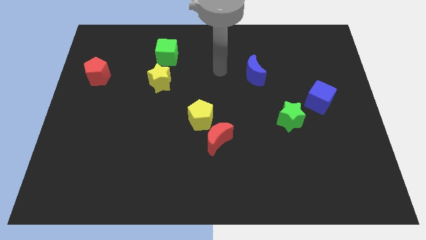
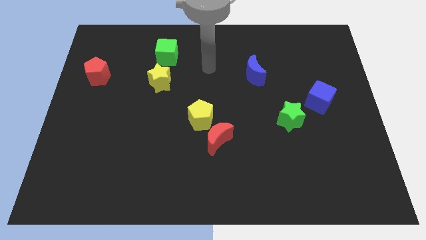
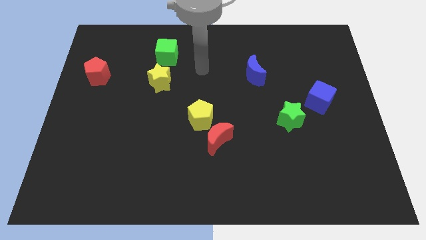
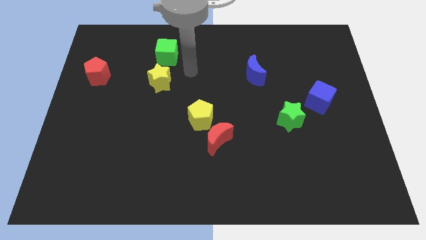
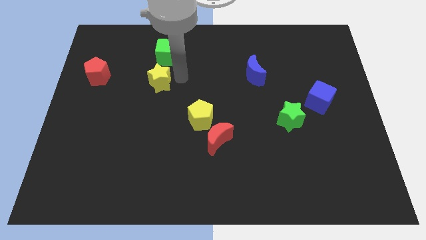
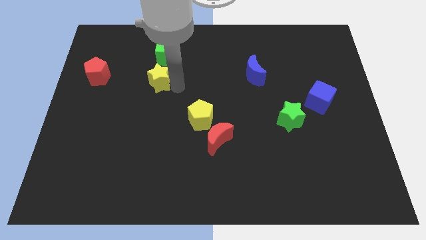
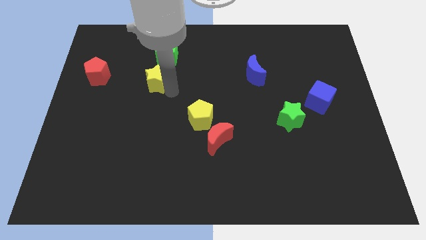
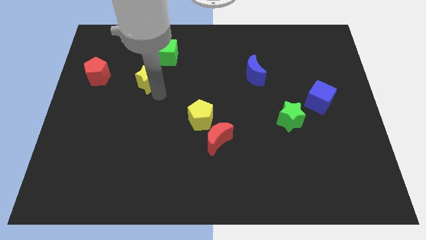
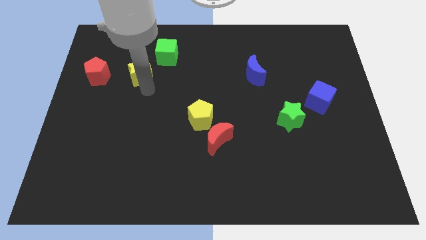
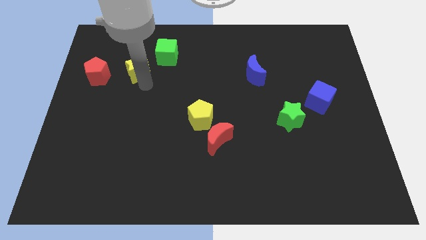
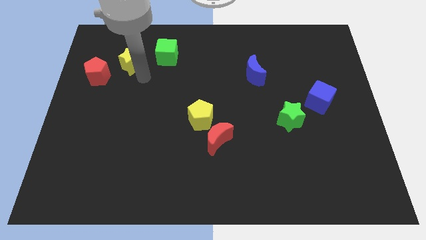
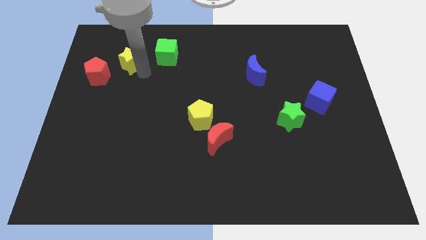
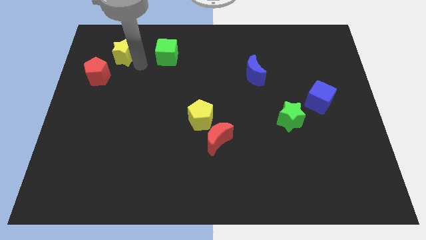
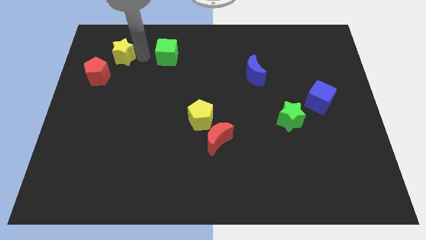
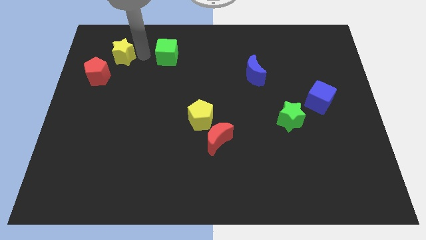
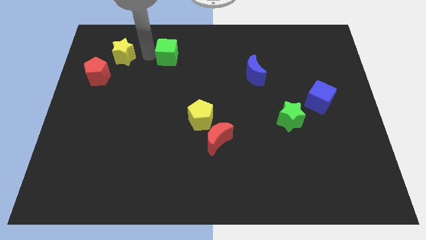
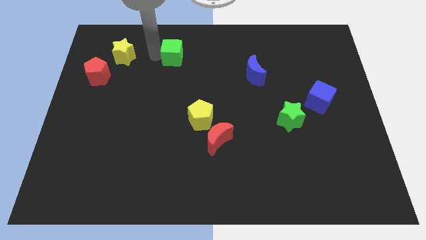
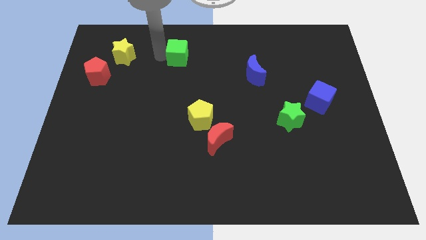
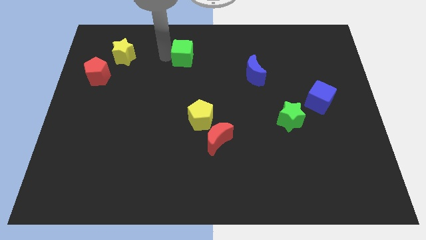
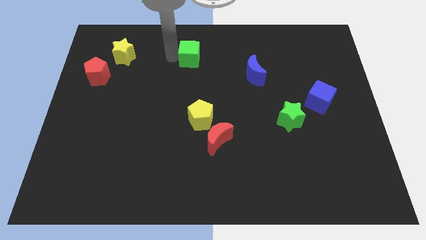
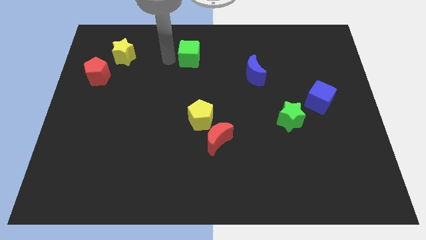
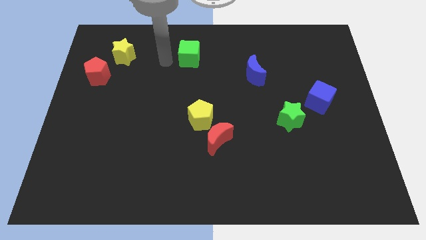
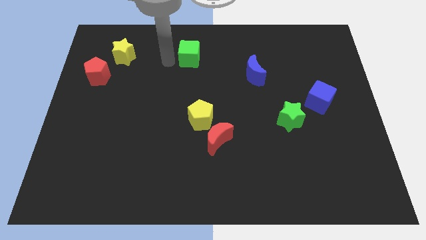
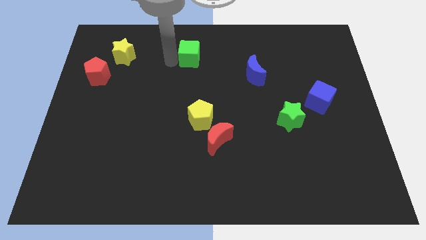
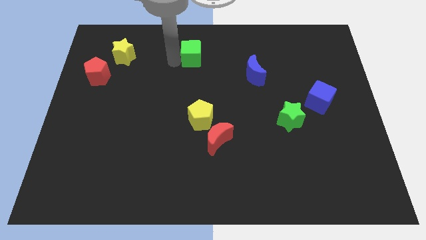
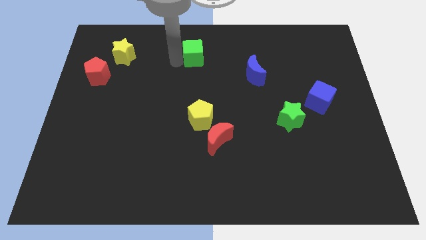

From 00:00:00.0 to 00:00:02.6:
move the green cube right a bit

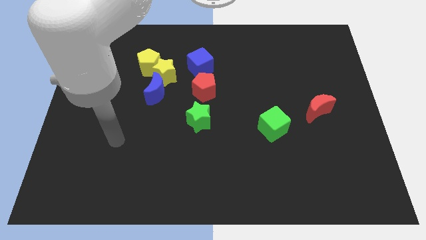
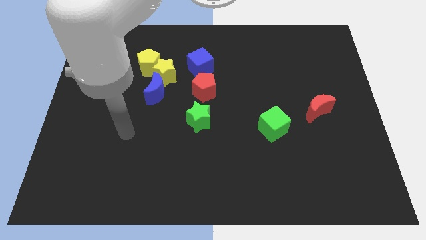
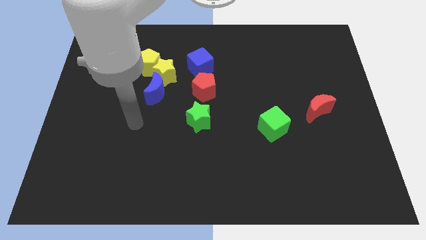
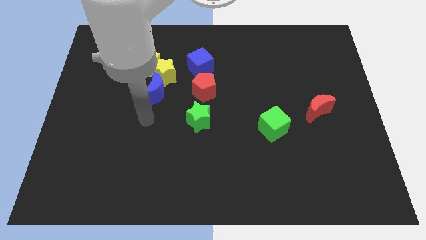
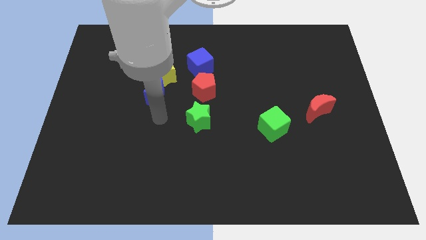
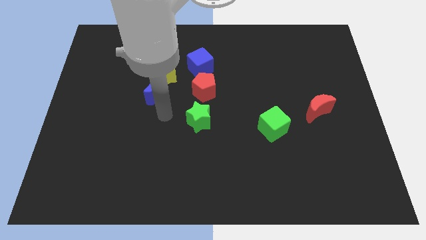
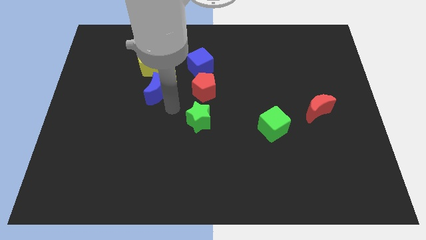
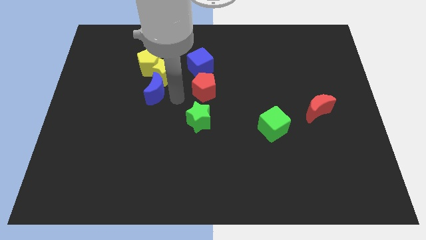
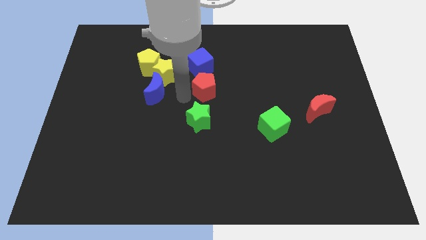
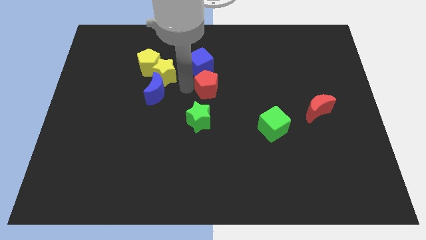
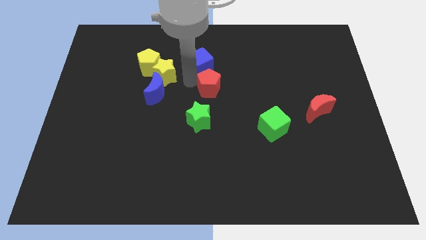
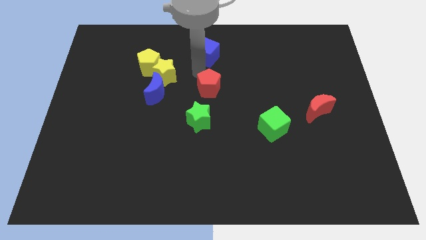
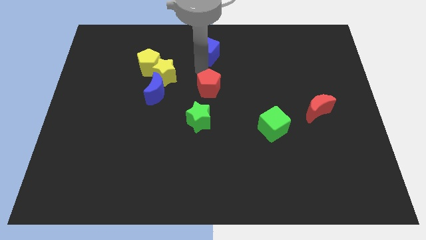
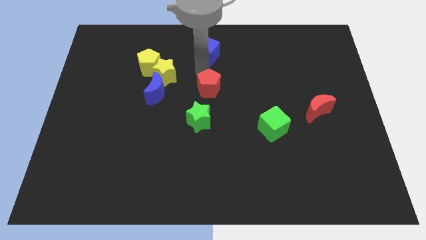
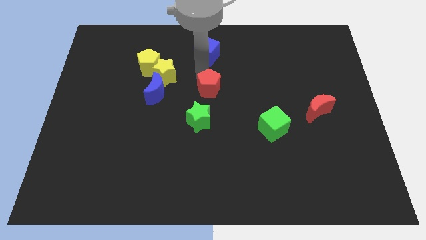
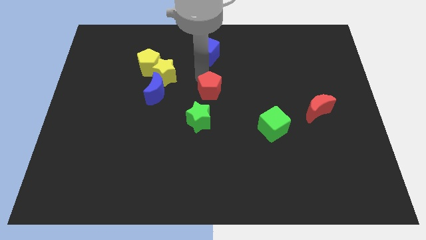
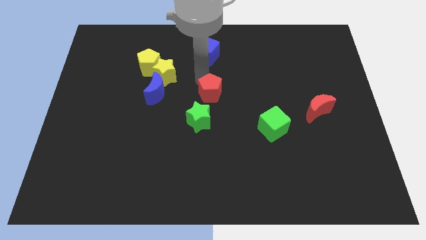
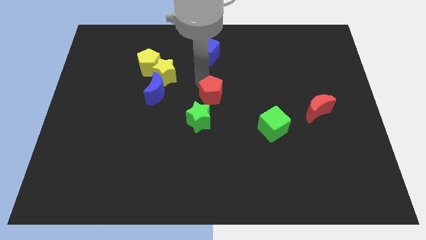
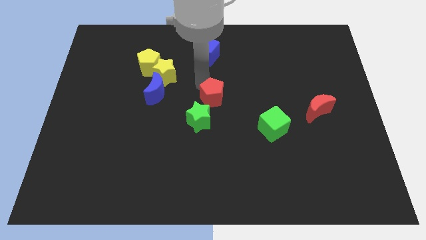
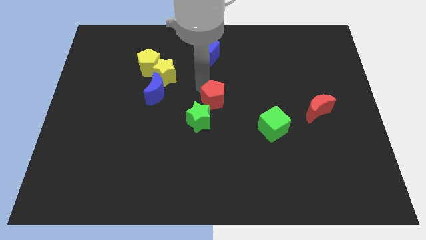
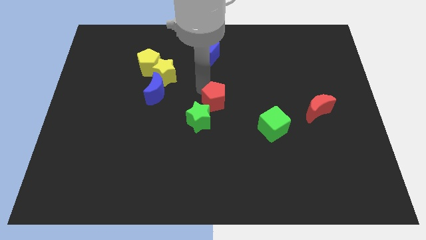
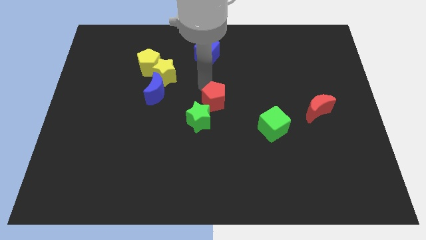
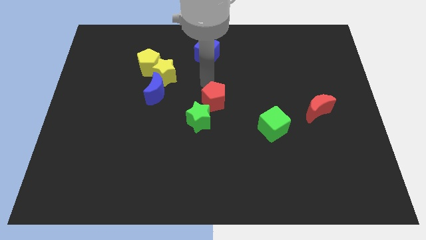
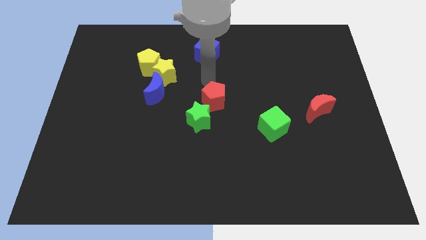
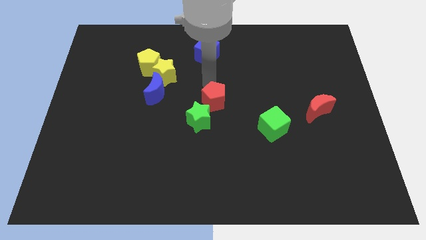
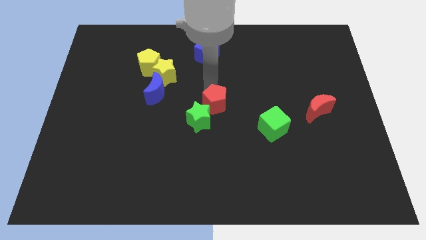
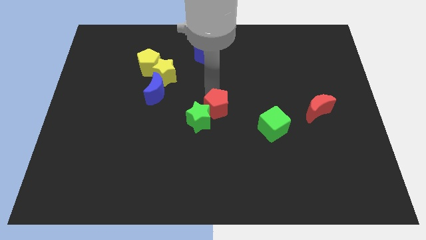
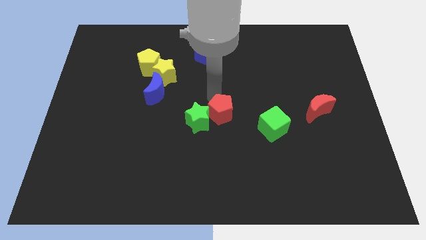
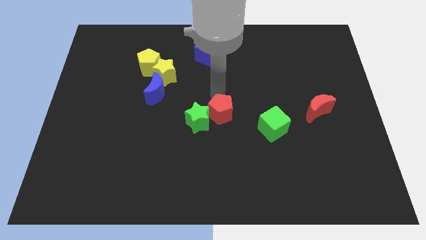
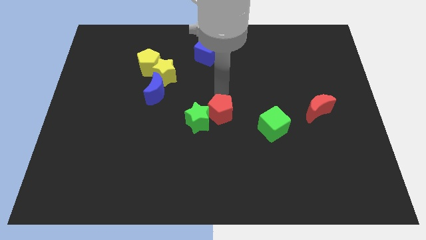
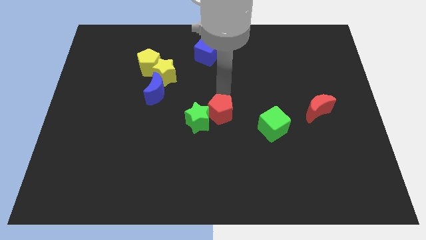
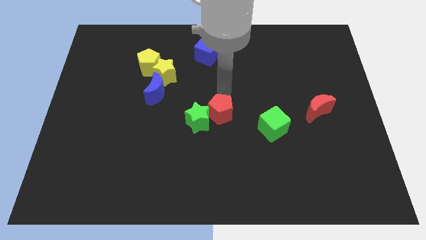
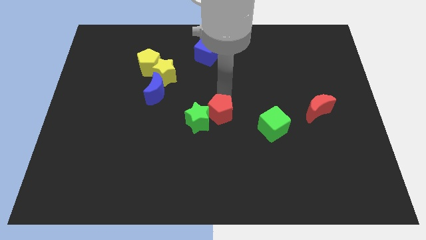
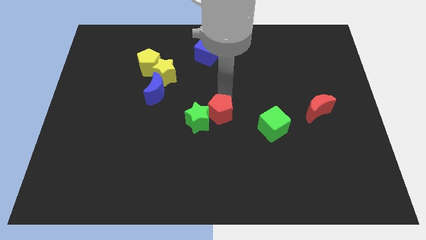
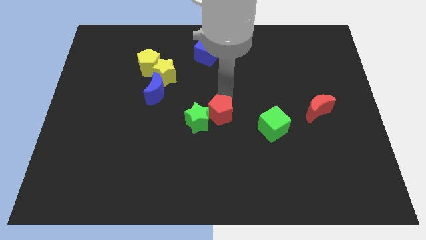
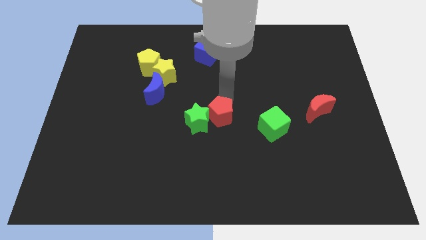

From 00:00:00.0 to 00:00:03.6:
move the red pentagon downwards a bit

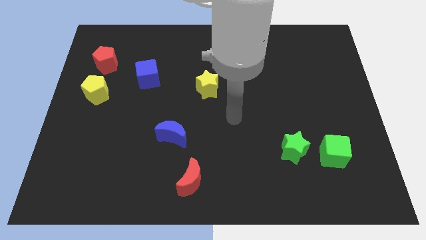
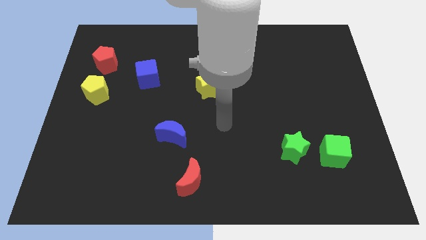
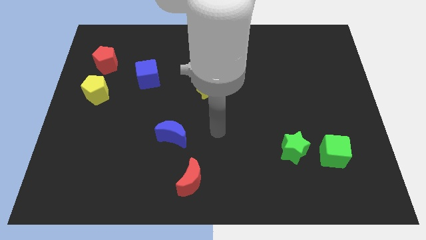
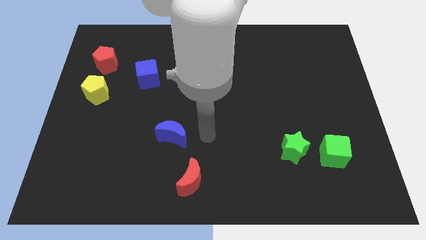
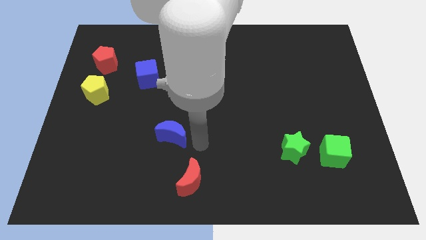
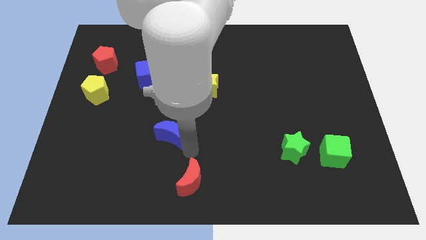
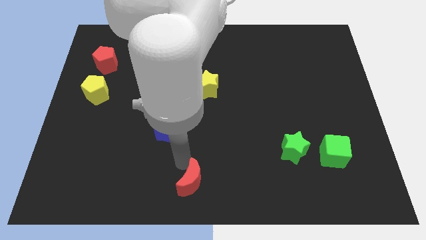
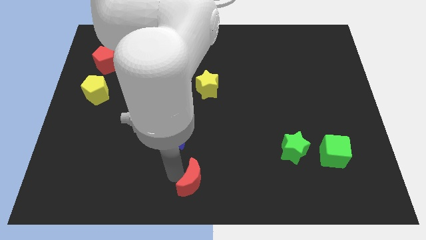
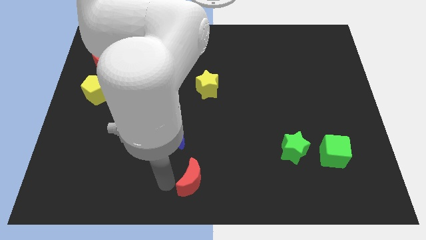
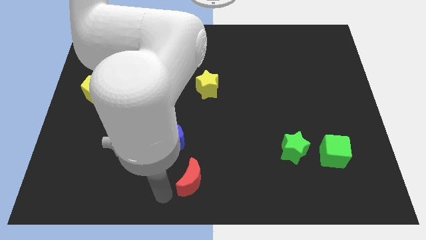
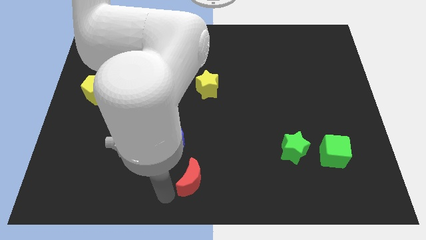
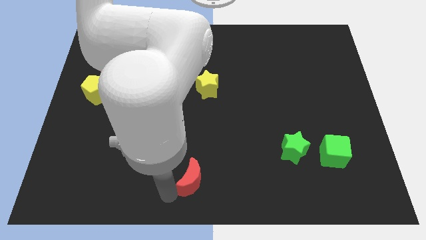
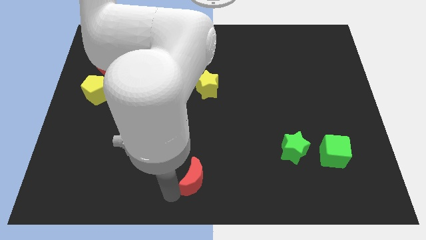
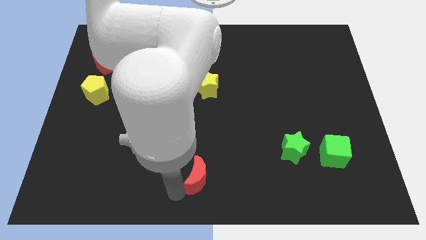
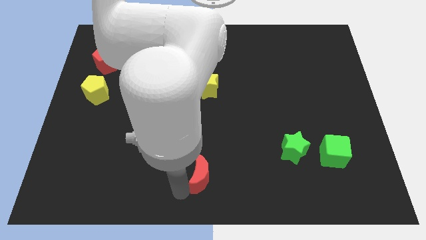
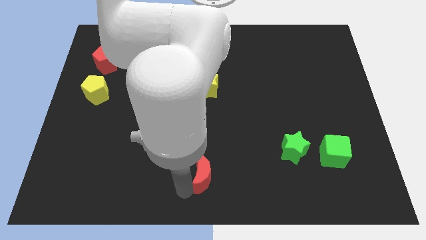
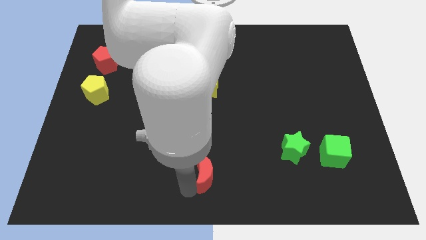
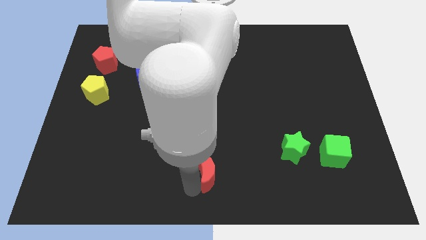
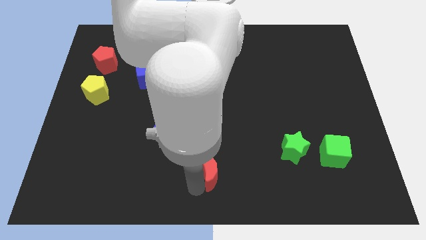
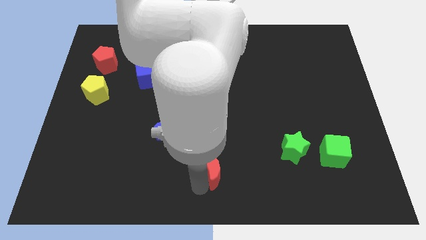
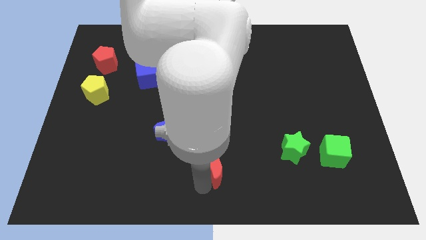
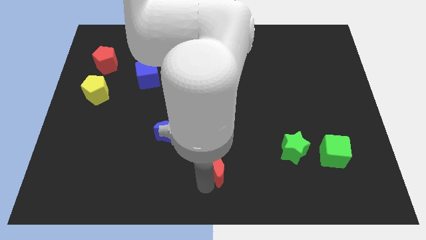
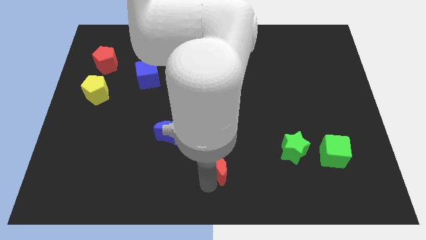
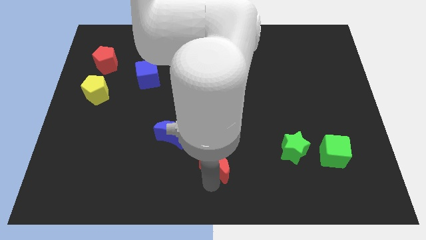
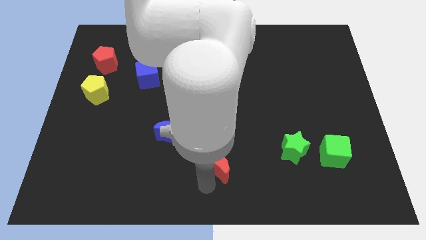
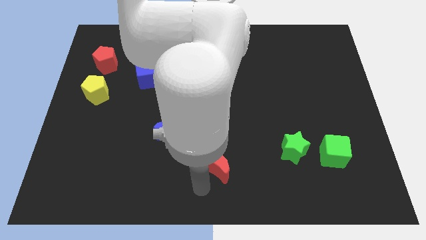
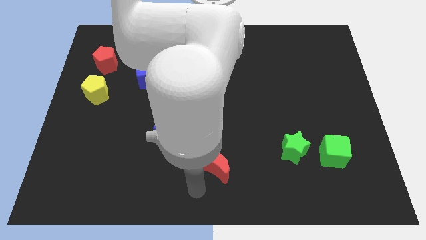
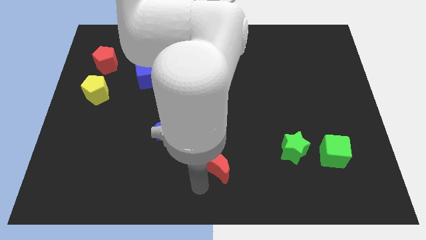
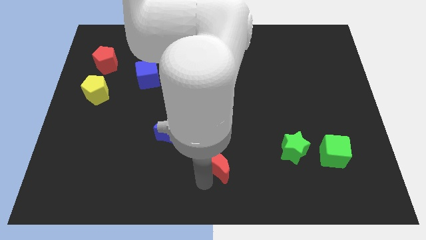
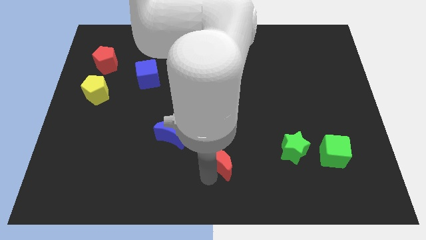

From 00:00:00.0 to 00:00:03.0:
slightly move the red moon upwards and right diagonally
